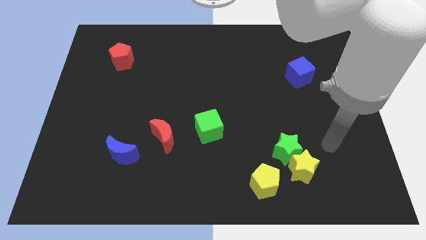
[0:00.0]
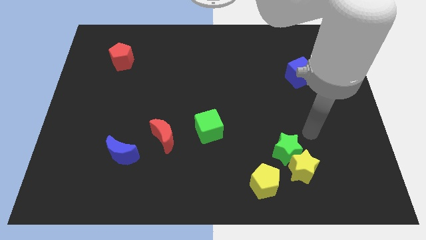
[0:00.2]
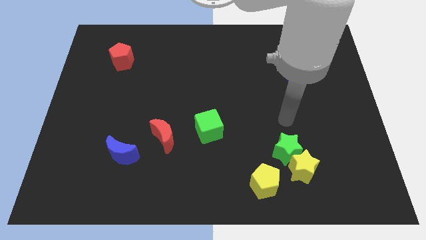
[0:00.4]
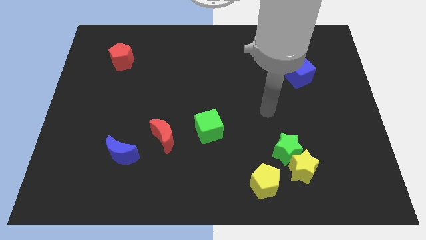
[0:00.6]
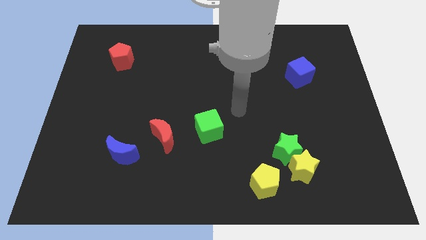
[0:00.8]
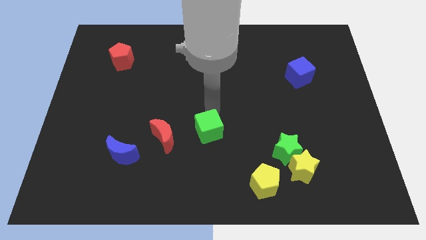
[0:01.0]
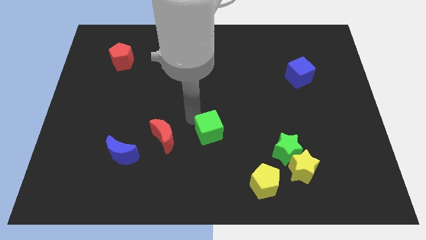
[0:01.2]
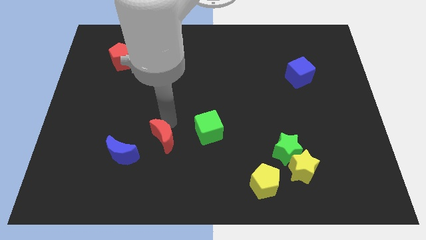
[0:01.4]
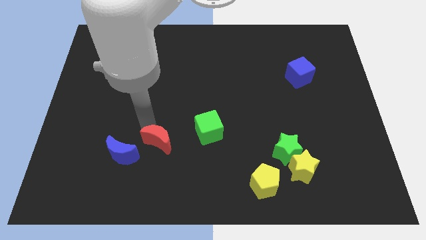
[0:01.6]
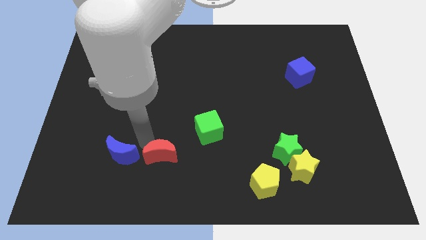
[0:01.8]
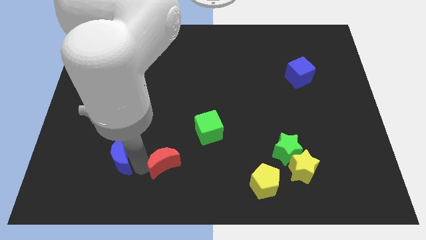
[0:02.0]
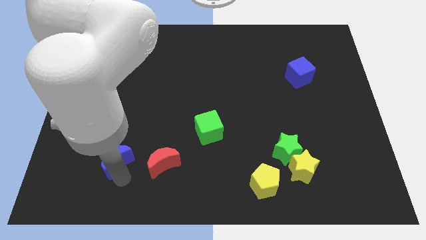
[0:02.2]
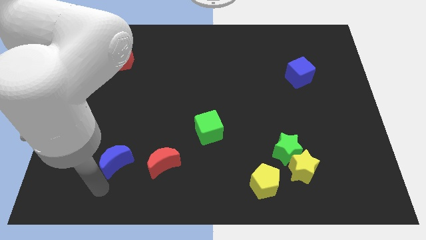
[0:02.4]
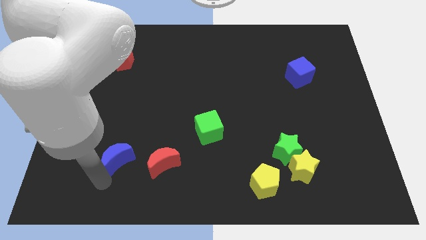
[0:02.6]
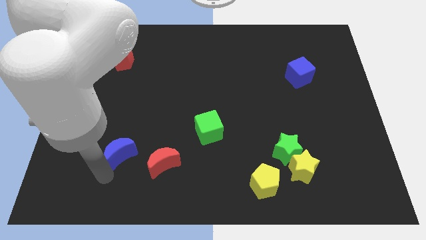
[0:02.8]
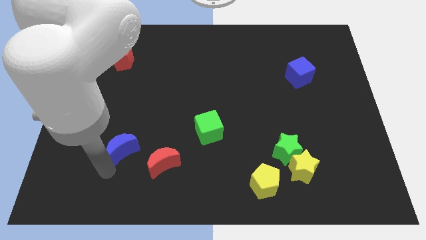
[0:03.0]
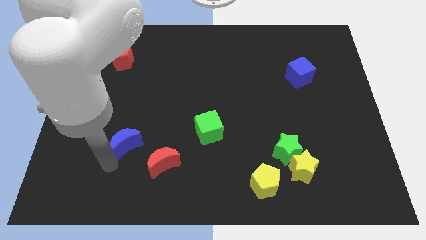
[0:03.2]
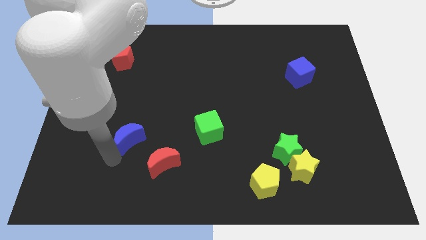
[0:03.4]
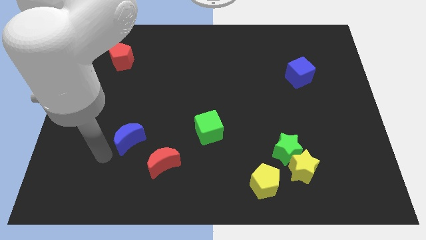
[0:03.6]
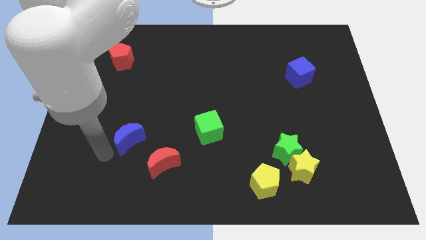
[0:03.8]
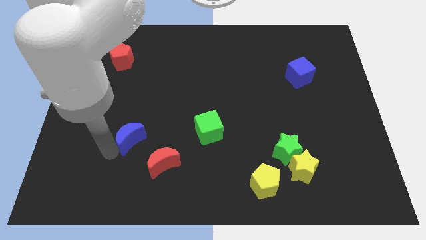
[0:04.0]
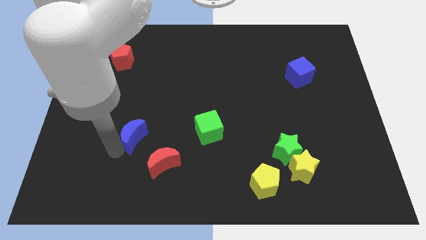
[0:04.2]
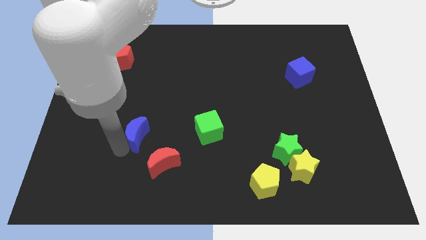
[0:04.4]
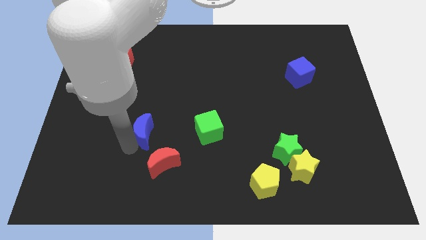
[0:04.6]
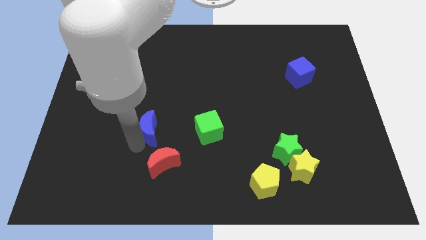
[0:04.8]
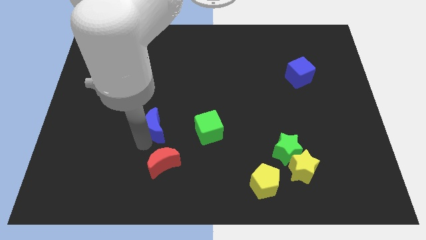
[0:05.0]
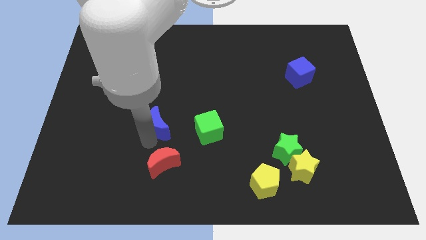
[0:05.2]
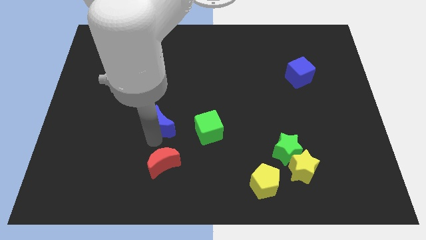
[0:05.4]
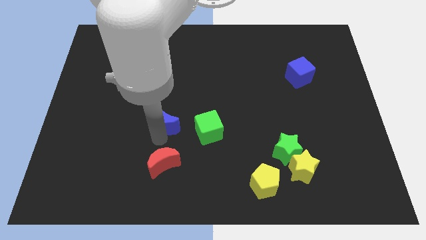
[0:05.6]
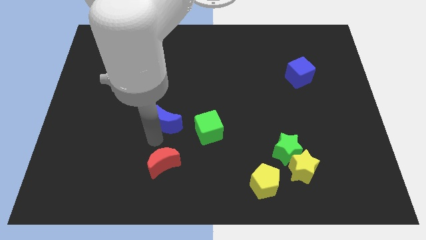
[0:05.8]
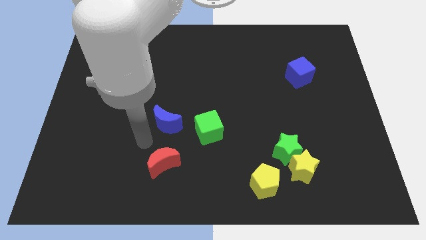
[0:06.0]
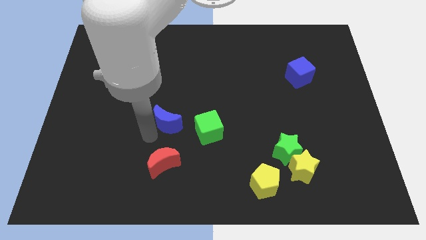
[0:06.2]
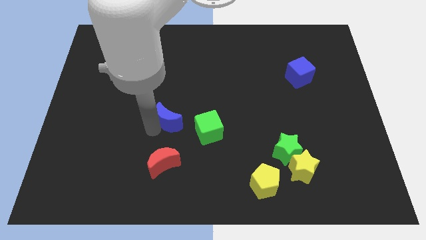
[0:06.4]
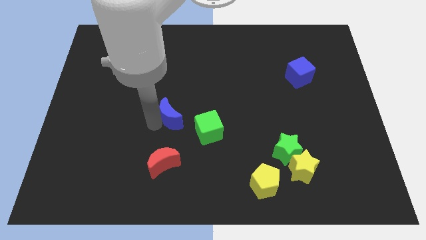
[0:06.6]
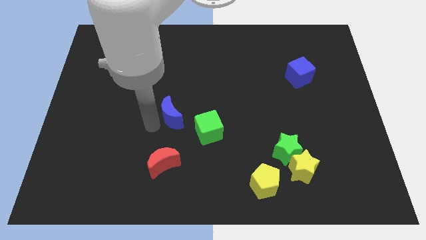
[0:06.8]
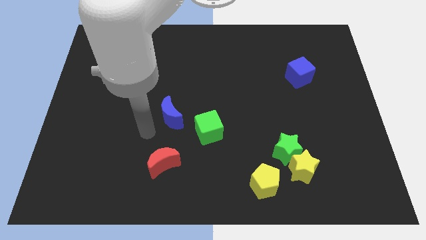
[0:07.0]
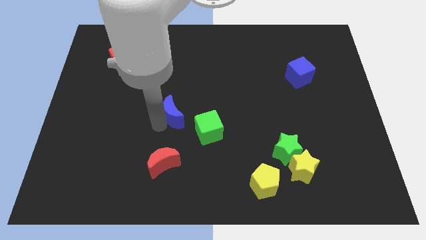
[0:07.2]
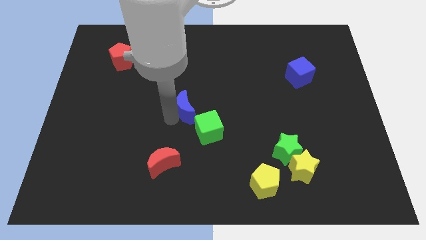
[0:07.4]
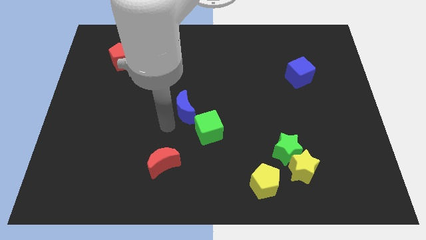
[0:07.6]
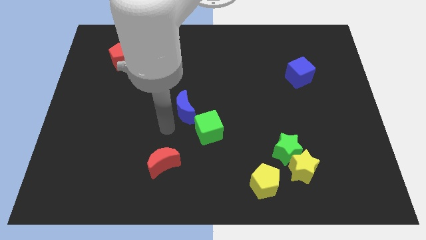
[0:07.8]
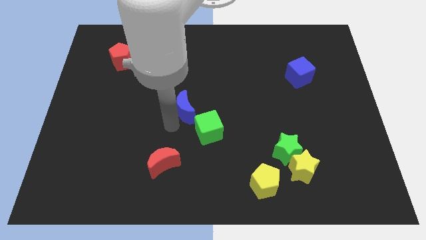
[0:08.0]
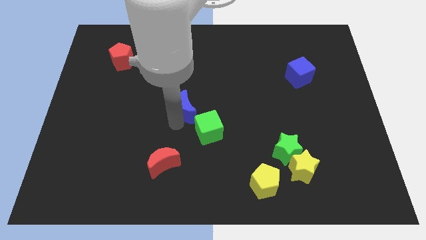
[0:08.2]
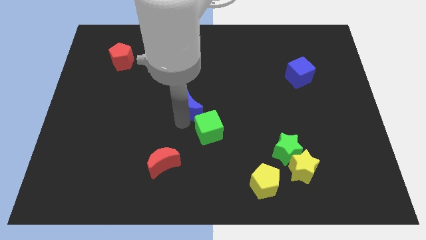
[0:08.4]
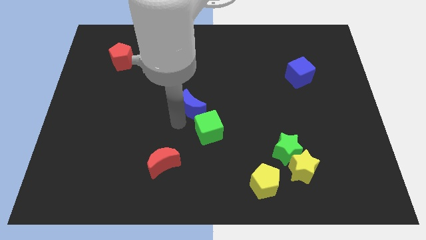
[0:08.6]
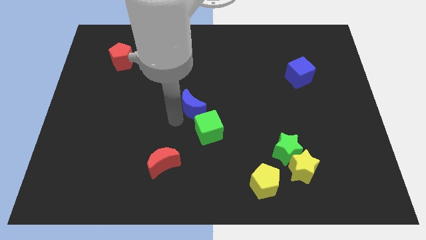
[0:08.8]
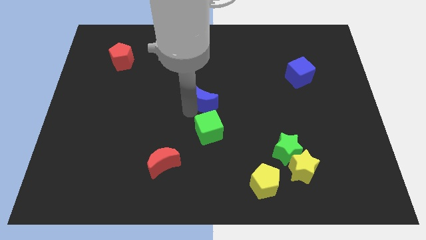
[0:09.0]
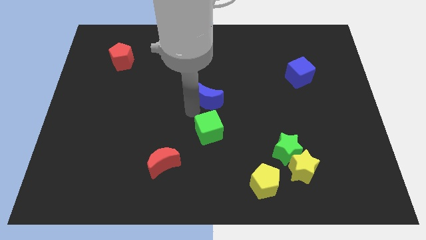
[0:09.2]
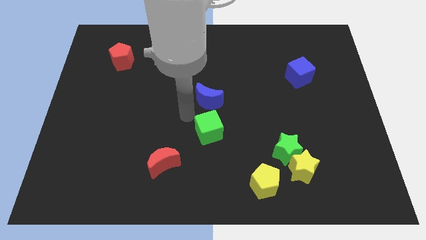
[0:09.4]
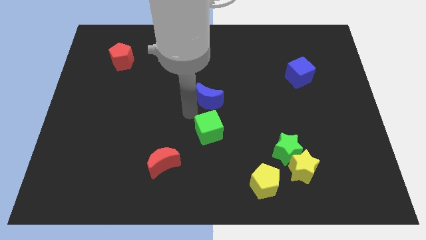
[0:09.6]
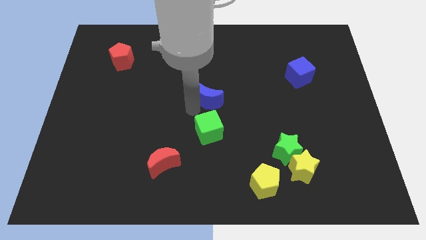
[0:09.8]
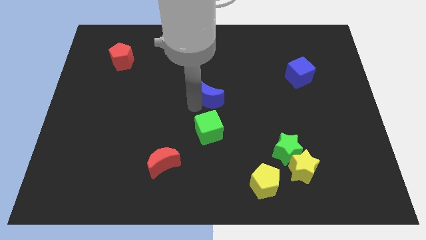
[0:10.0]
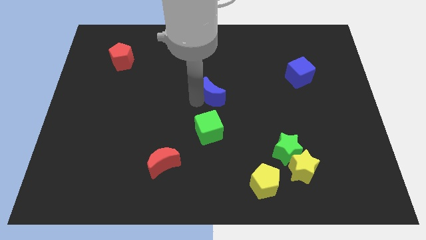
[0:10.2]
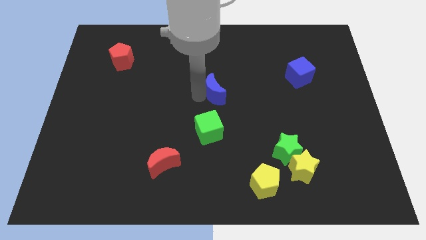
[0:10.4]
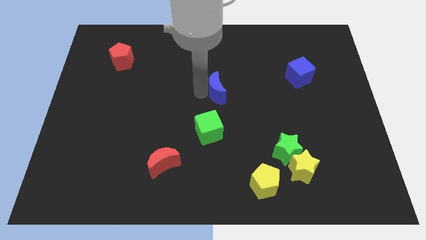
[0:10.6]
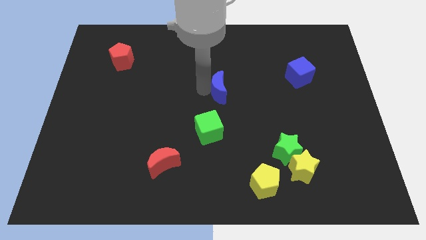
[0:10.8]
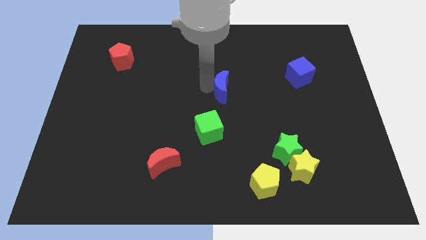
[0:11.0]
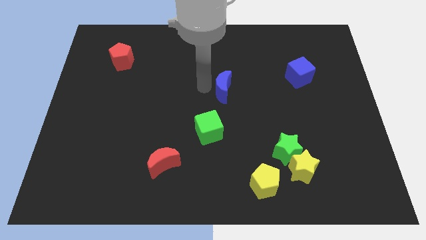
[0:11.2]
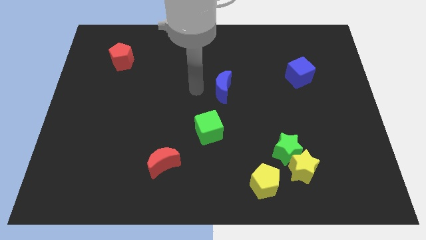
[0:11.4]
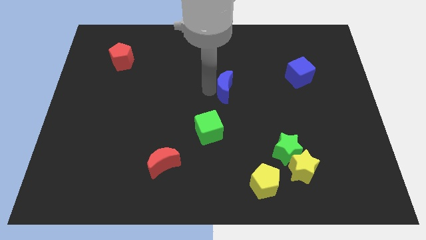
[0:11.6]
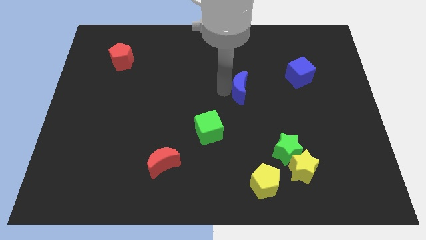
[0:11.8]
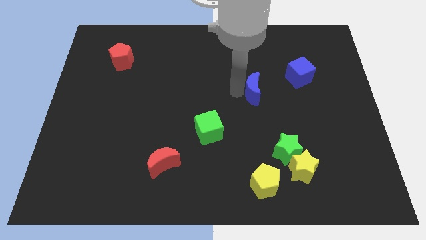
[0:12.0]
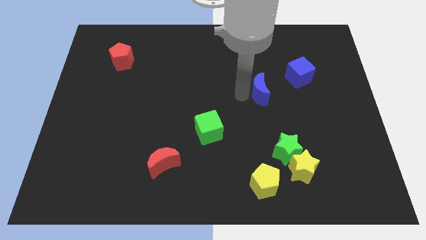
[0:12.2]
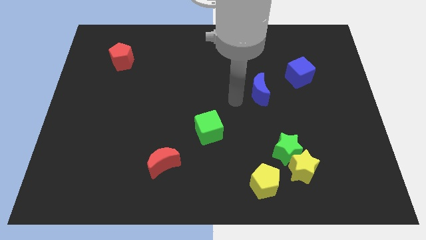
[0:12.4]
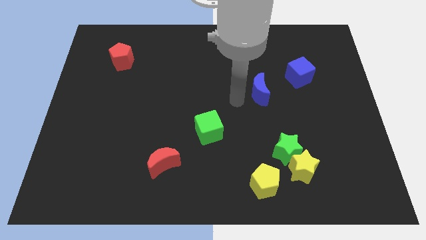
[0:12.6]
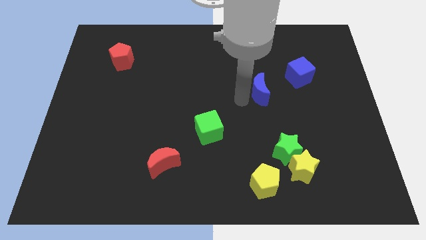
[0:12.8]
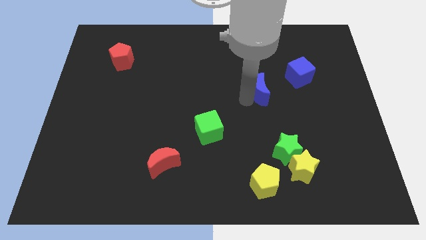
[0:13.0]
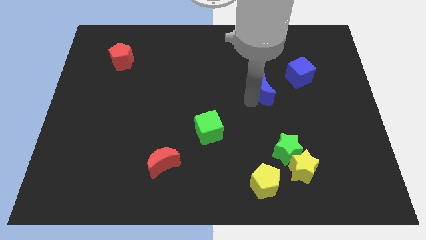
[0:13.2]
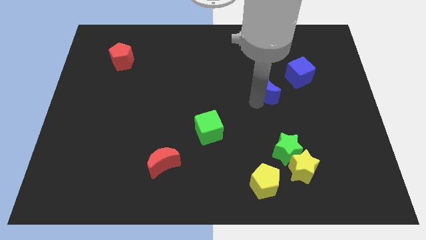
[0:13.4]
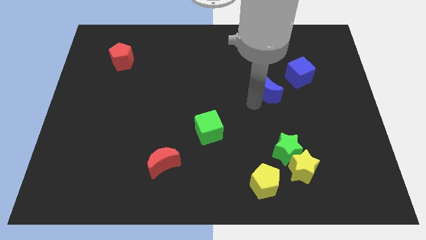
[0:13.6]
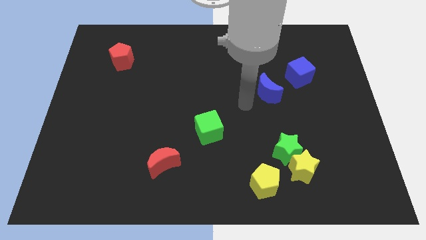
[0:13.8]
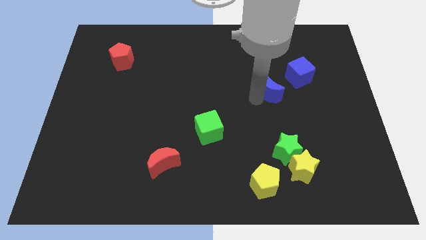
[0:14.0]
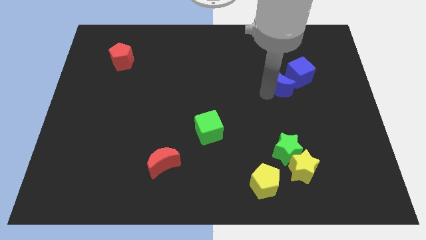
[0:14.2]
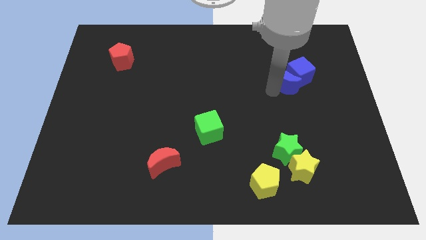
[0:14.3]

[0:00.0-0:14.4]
slide the blue moon next to the blue cube

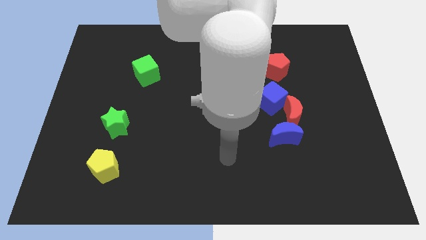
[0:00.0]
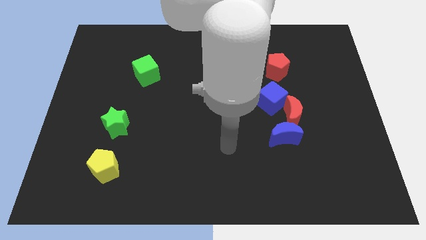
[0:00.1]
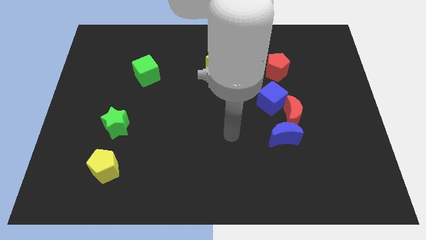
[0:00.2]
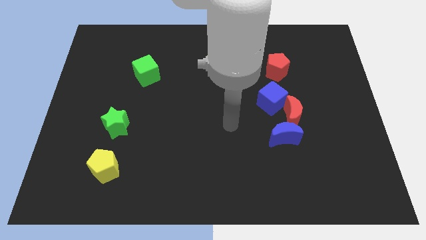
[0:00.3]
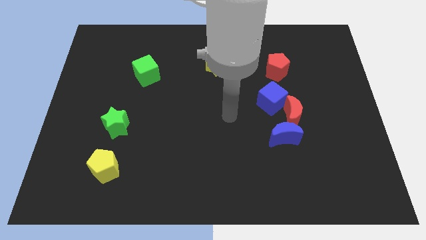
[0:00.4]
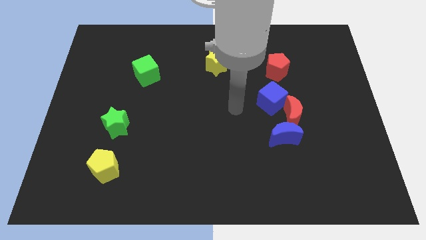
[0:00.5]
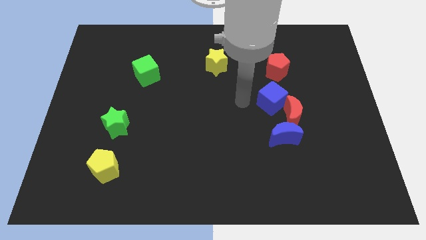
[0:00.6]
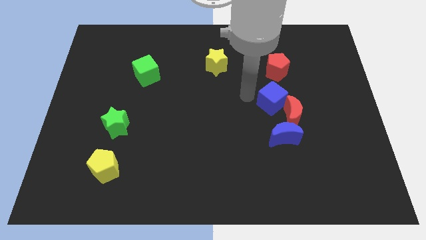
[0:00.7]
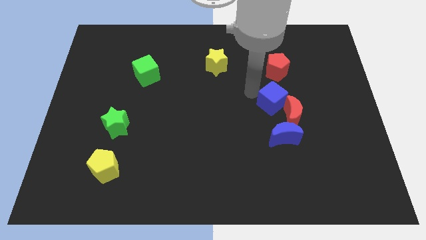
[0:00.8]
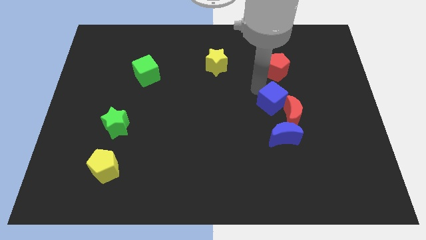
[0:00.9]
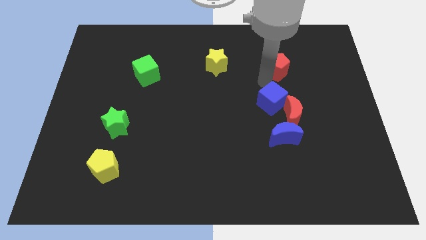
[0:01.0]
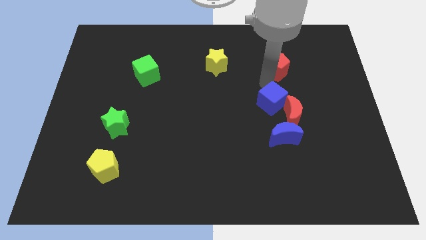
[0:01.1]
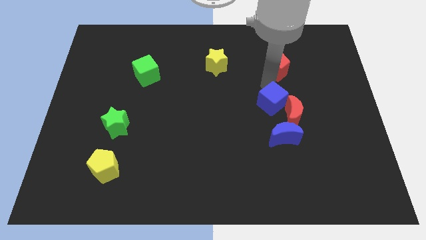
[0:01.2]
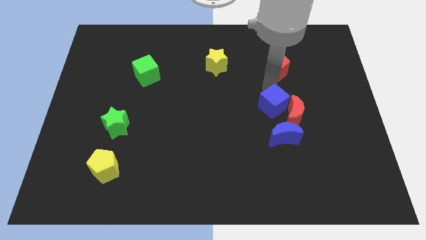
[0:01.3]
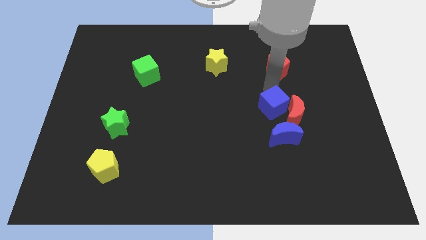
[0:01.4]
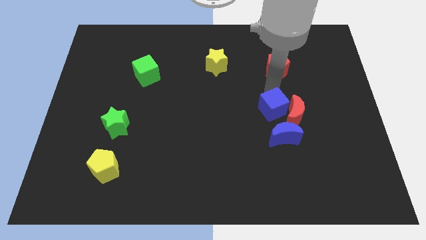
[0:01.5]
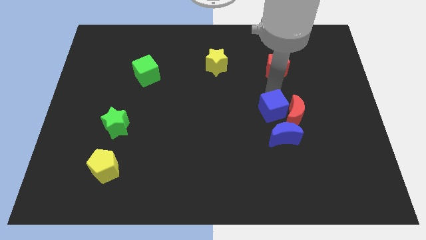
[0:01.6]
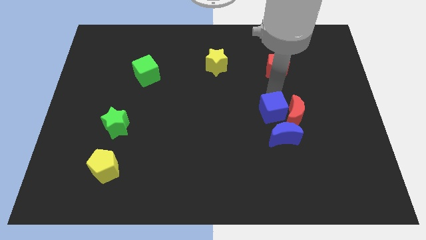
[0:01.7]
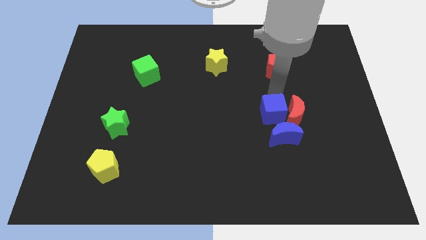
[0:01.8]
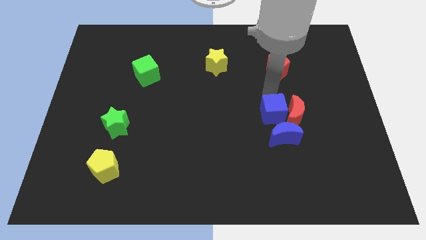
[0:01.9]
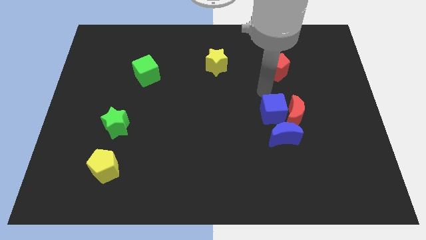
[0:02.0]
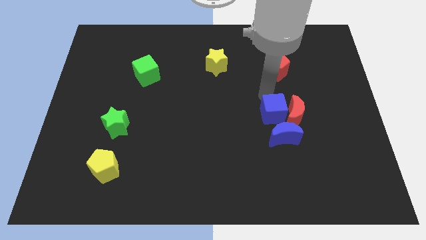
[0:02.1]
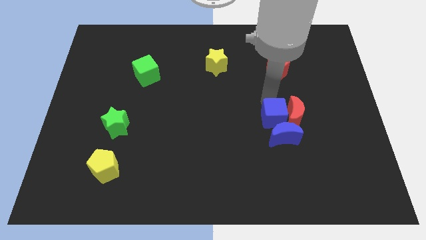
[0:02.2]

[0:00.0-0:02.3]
slide the blue cube next to the blue moon
